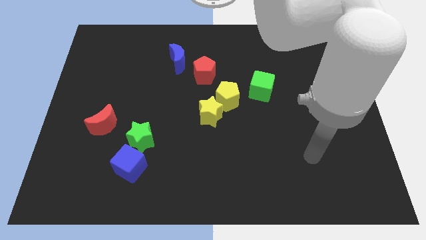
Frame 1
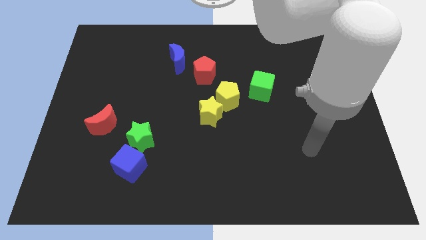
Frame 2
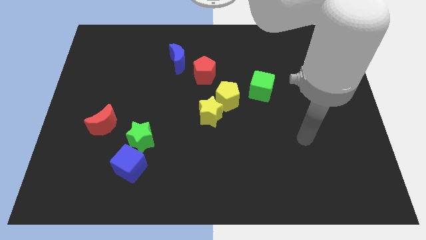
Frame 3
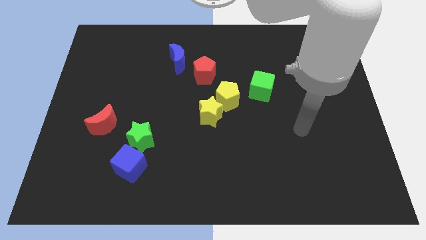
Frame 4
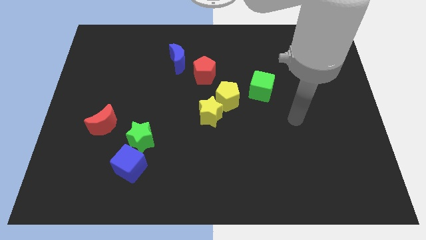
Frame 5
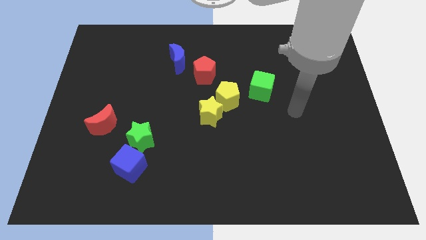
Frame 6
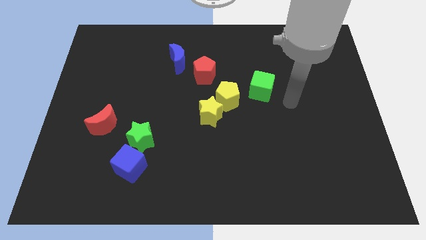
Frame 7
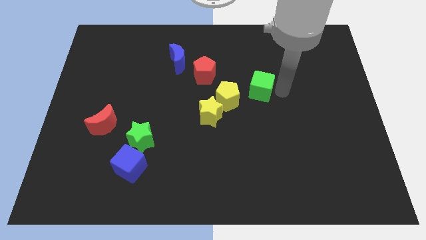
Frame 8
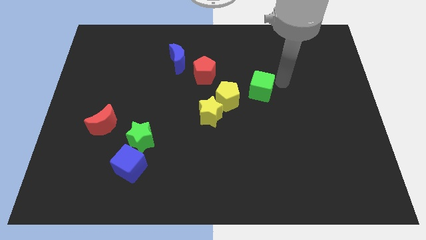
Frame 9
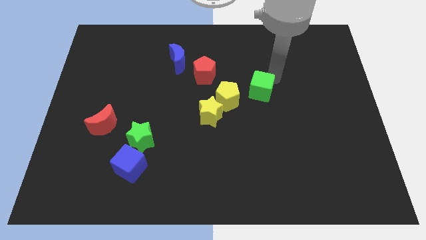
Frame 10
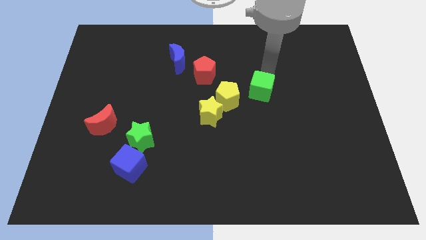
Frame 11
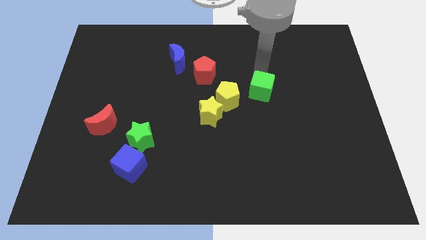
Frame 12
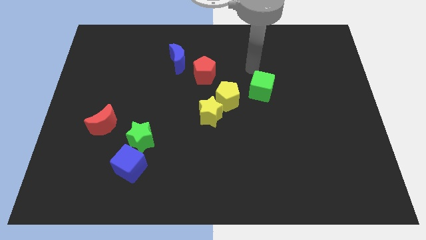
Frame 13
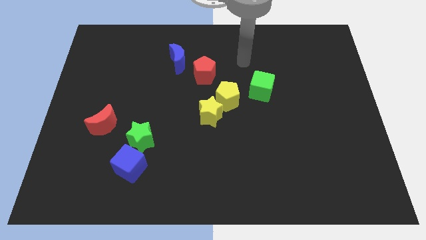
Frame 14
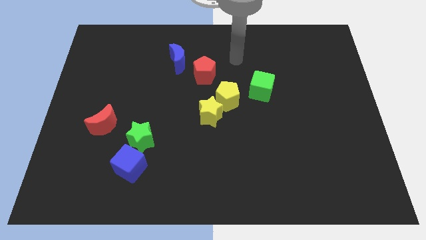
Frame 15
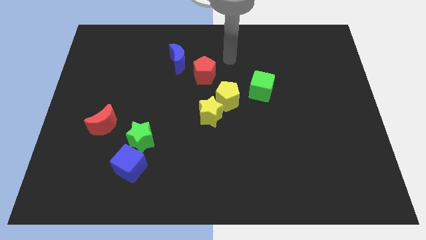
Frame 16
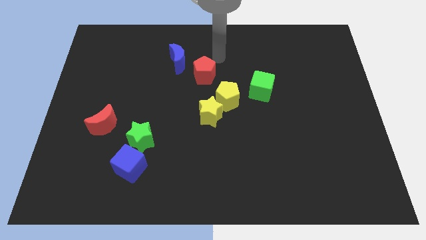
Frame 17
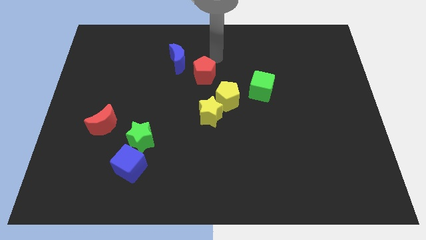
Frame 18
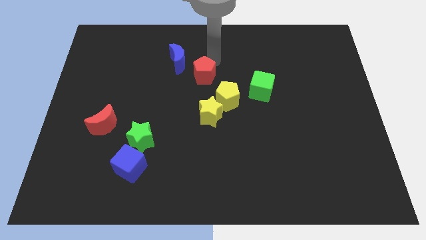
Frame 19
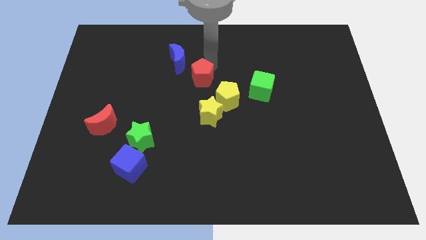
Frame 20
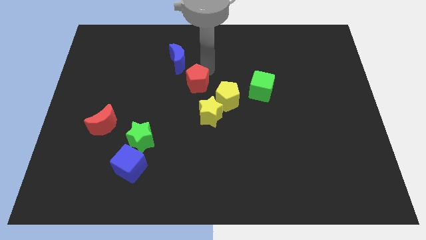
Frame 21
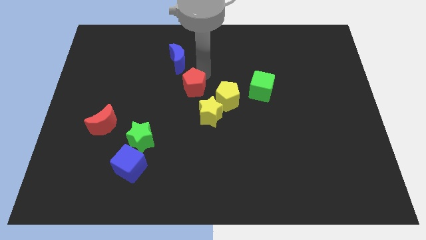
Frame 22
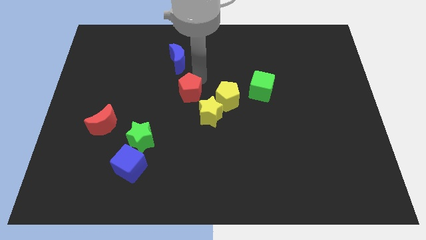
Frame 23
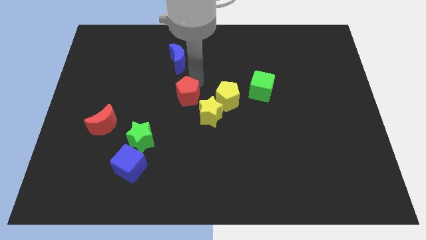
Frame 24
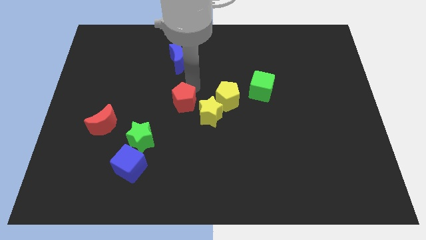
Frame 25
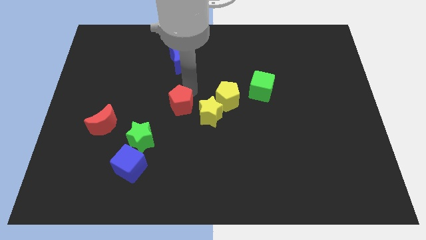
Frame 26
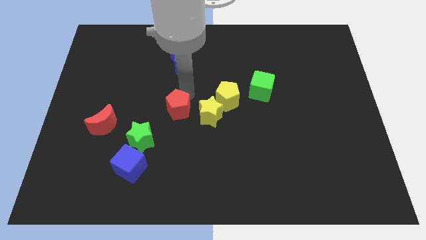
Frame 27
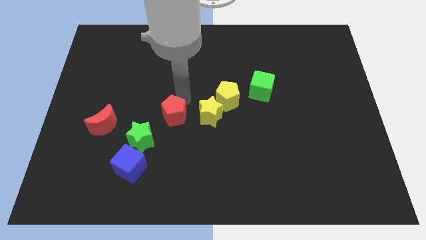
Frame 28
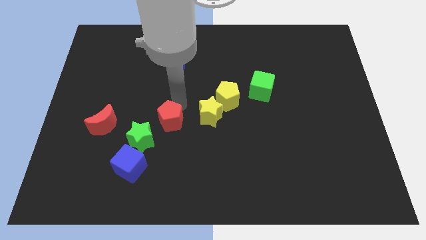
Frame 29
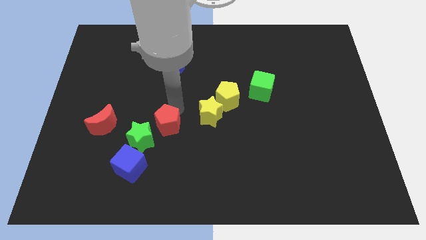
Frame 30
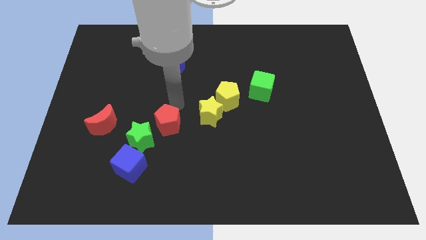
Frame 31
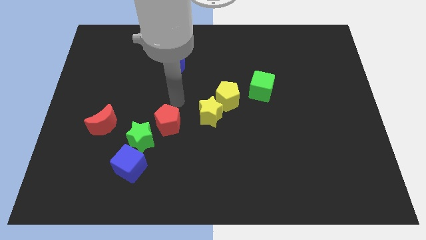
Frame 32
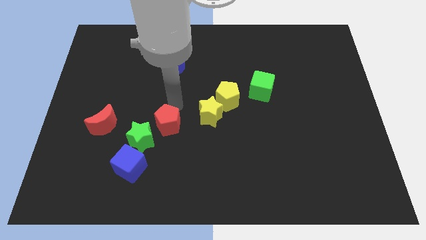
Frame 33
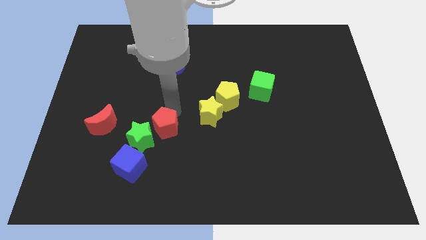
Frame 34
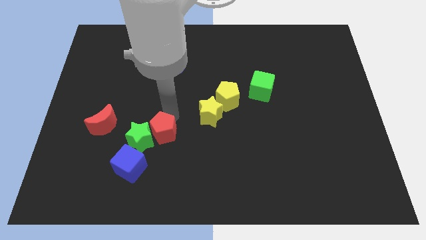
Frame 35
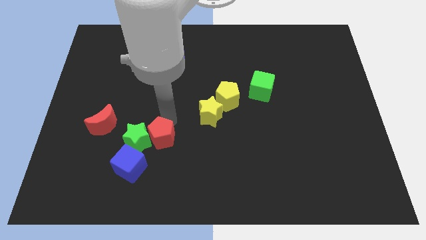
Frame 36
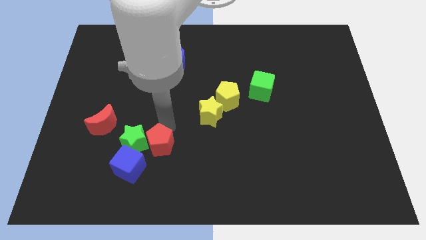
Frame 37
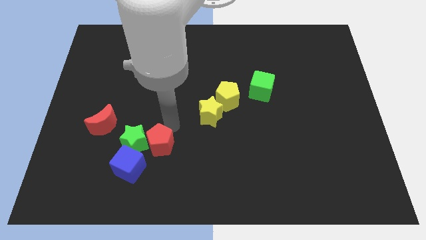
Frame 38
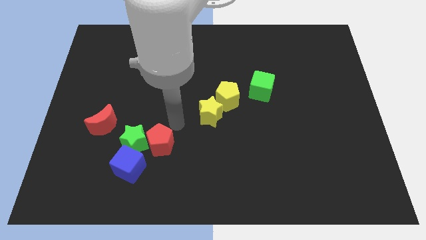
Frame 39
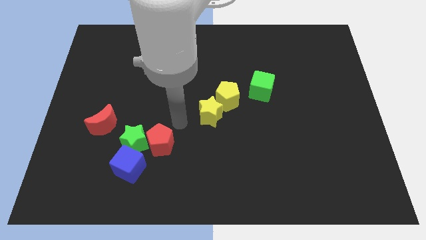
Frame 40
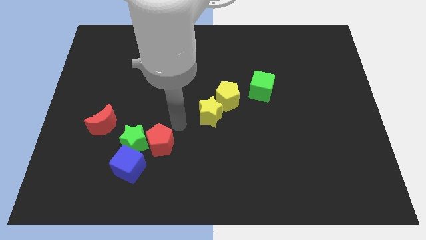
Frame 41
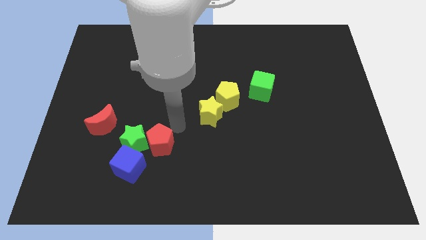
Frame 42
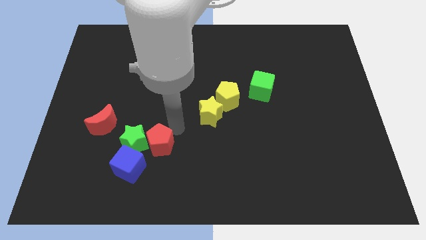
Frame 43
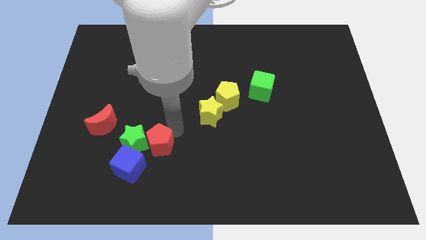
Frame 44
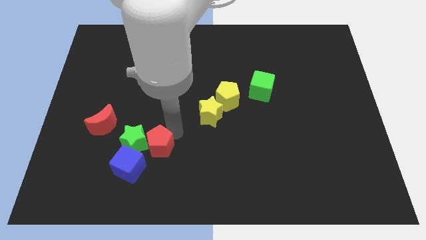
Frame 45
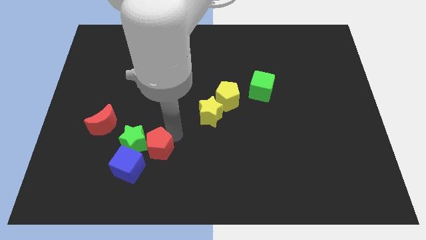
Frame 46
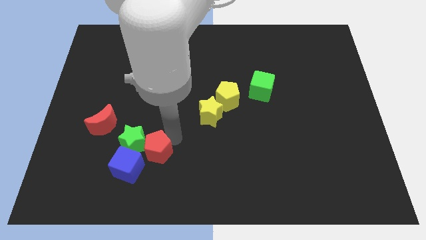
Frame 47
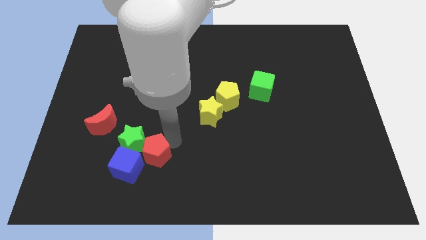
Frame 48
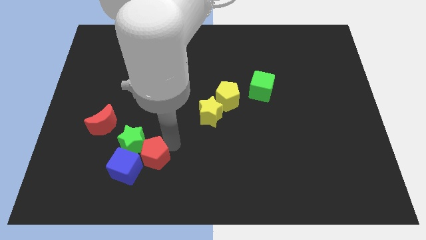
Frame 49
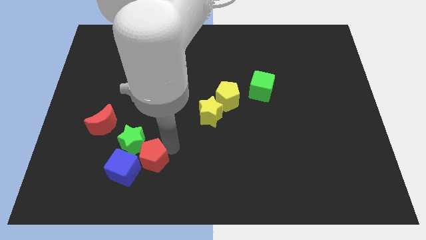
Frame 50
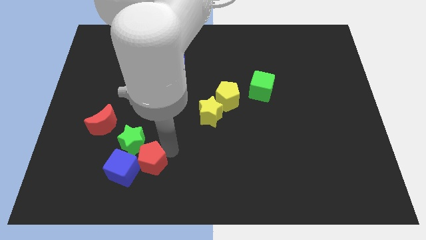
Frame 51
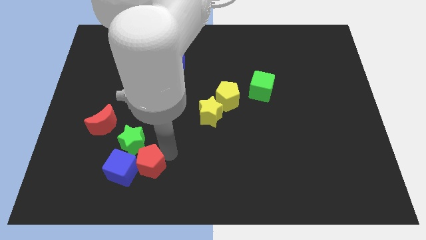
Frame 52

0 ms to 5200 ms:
push the red pentagon to the blue cube

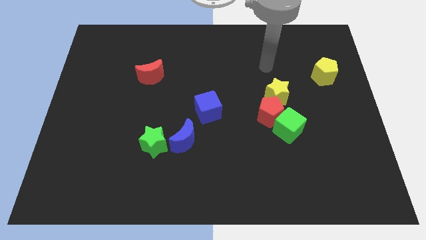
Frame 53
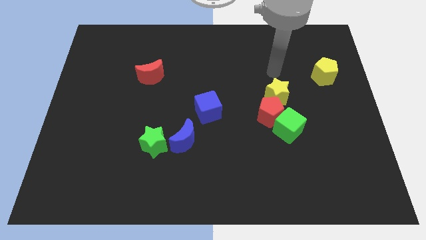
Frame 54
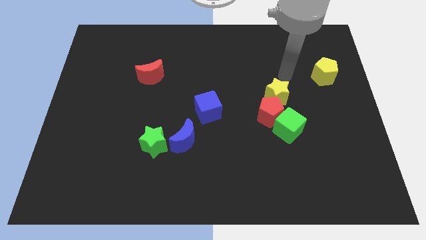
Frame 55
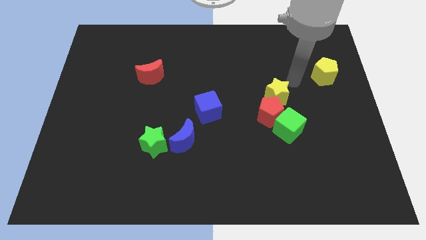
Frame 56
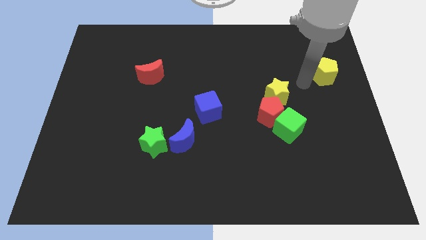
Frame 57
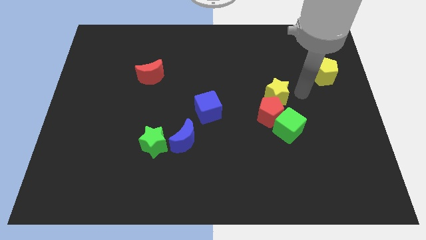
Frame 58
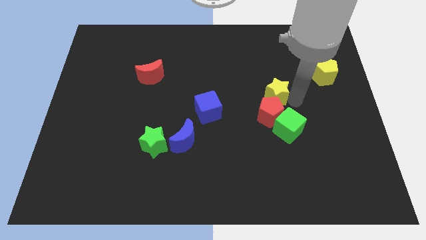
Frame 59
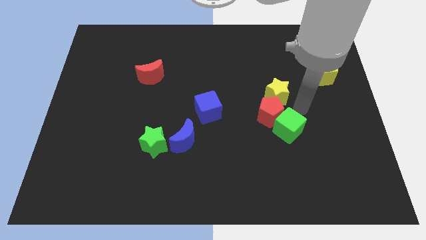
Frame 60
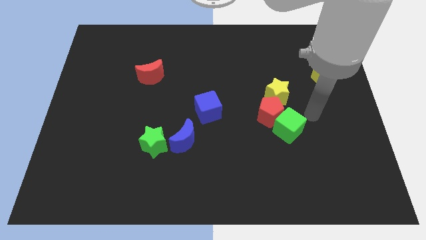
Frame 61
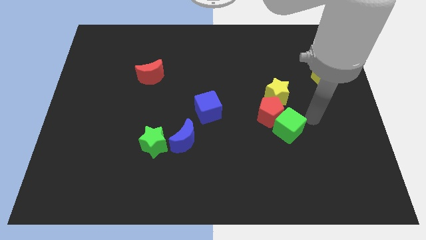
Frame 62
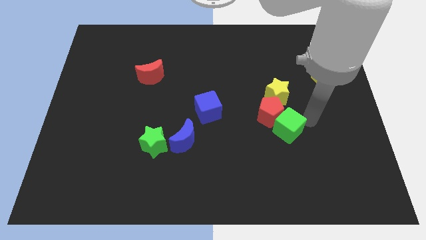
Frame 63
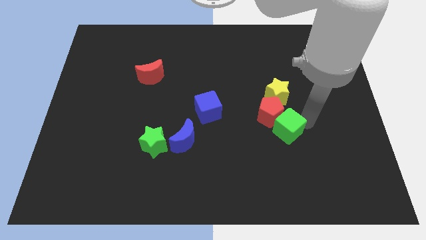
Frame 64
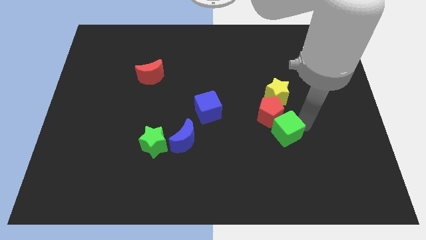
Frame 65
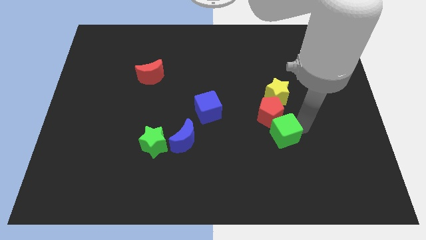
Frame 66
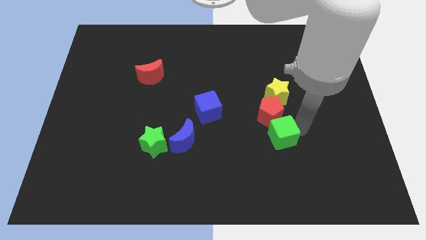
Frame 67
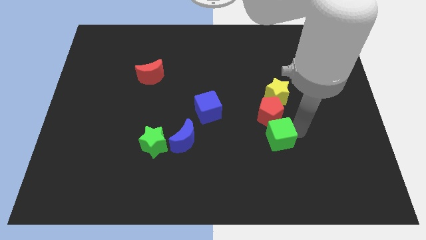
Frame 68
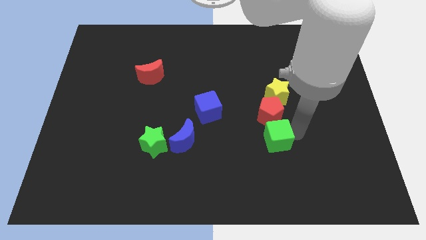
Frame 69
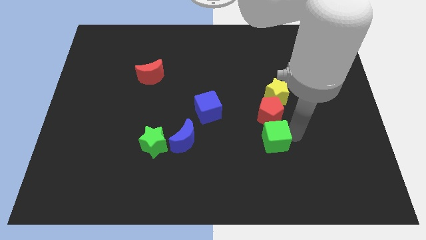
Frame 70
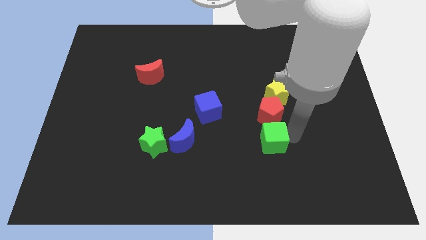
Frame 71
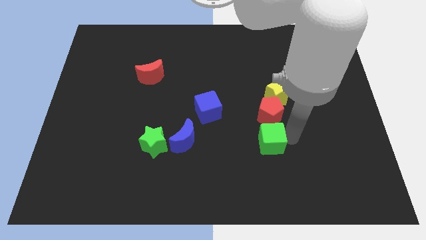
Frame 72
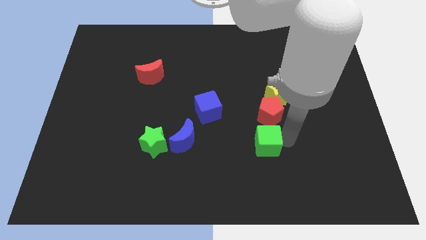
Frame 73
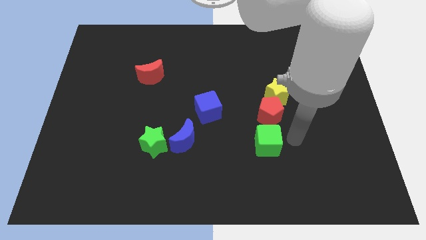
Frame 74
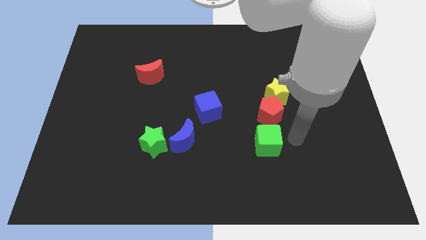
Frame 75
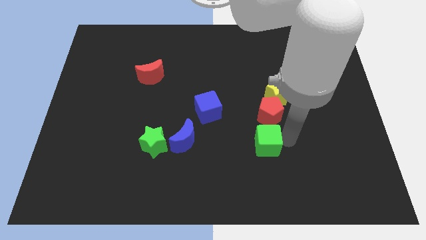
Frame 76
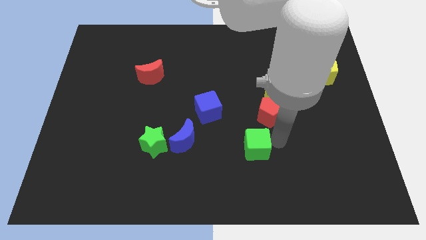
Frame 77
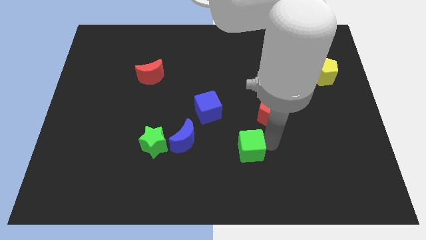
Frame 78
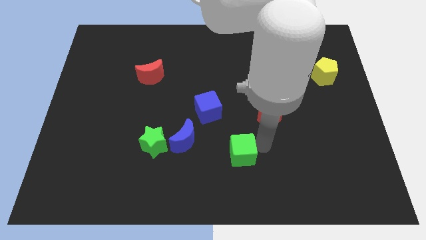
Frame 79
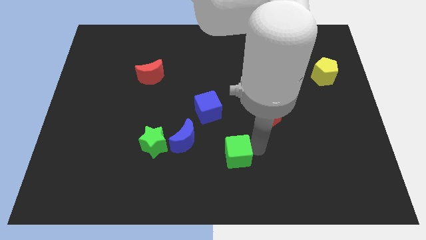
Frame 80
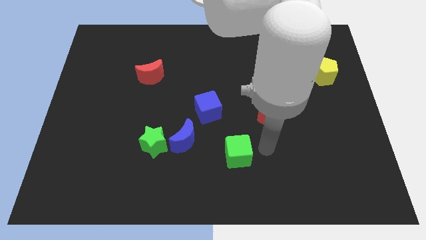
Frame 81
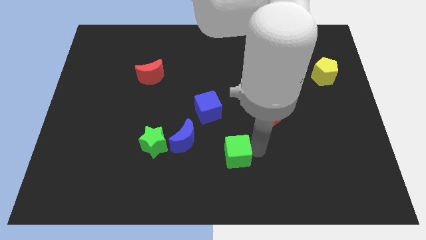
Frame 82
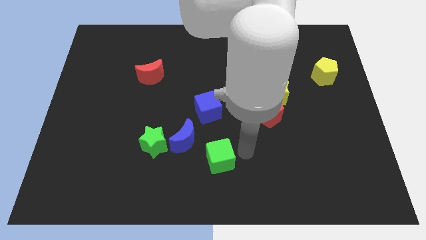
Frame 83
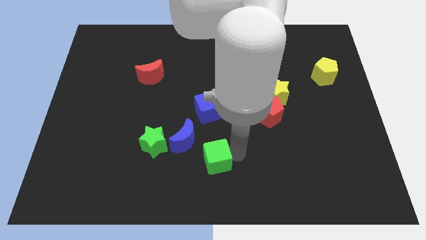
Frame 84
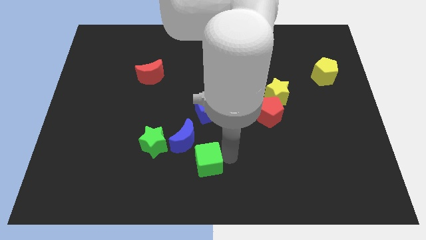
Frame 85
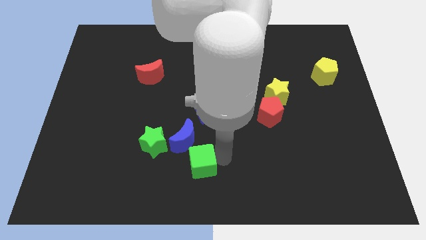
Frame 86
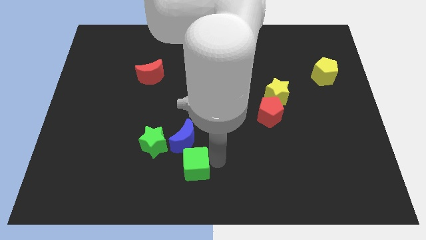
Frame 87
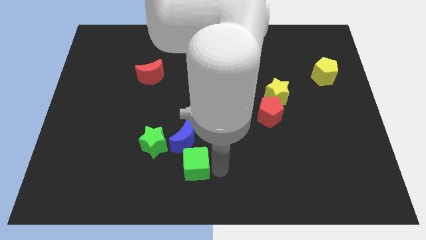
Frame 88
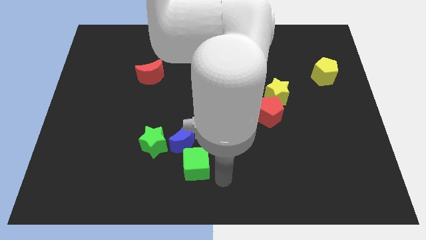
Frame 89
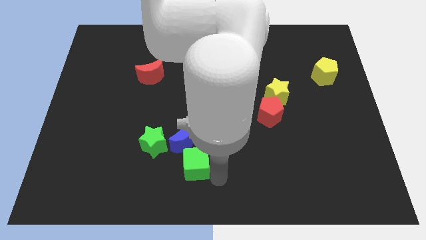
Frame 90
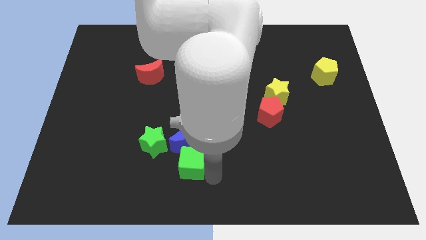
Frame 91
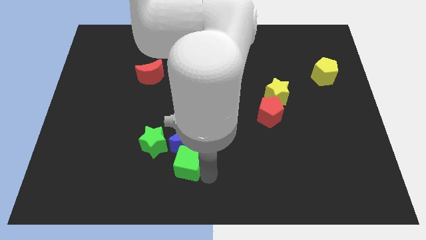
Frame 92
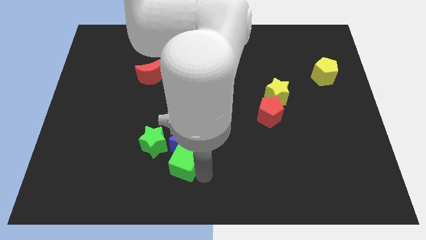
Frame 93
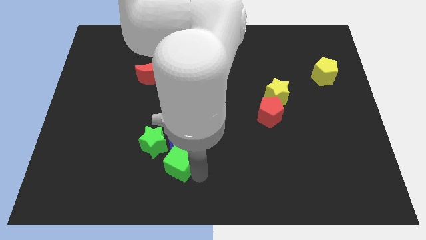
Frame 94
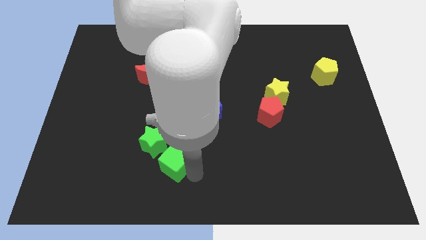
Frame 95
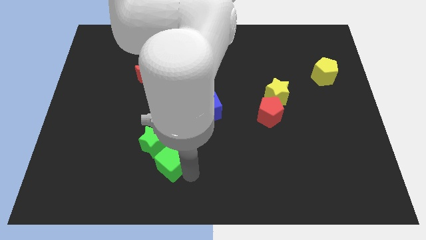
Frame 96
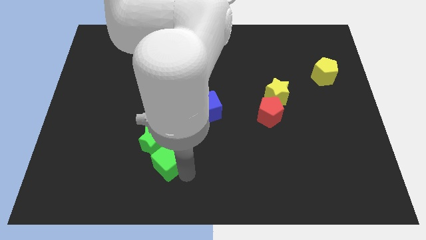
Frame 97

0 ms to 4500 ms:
put the green cube to the green star
